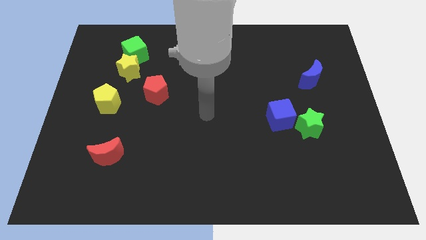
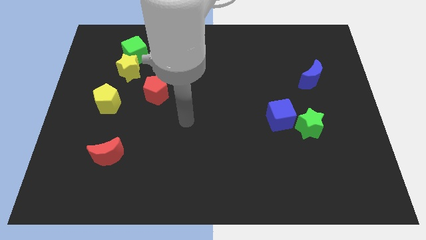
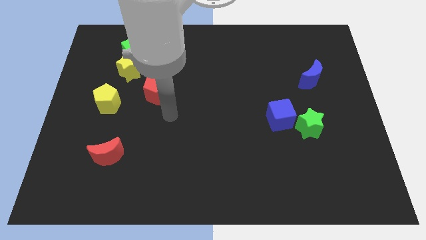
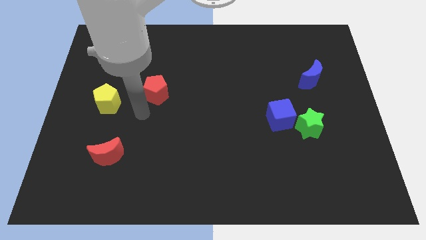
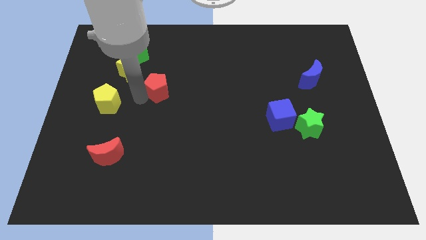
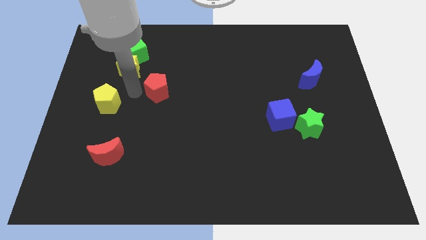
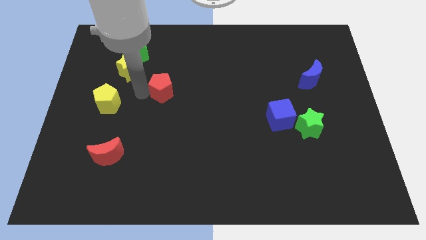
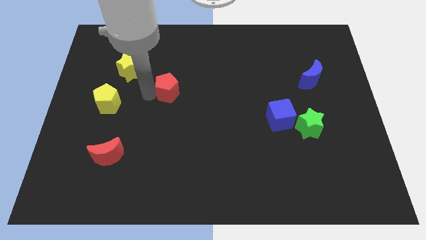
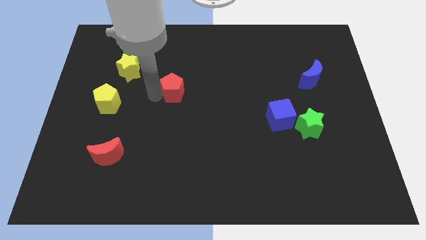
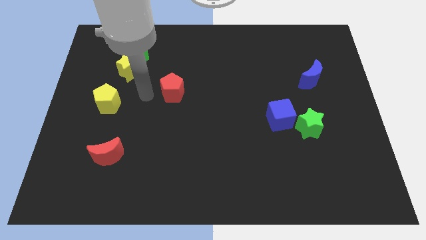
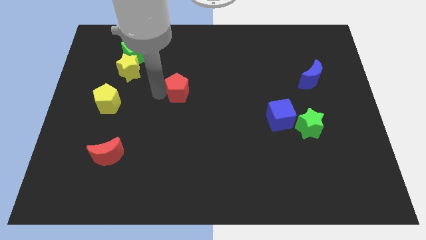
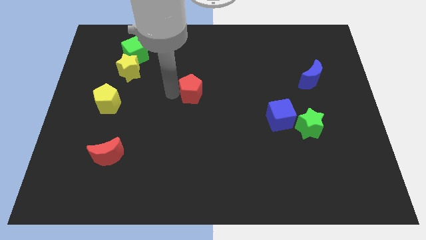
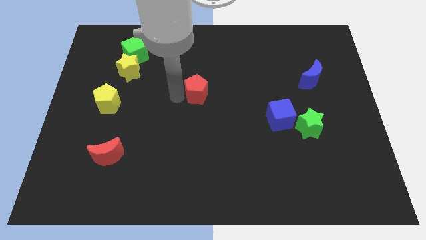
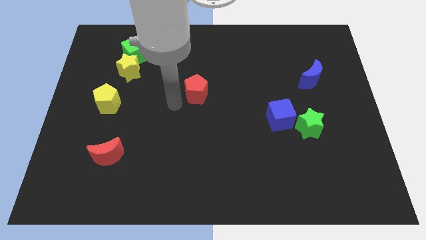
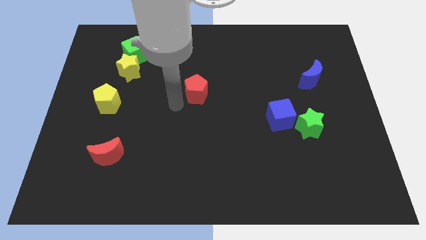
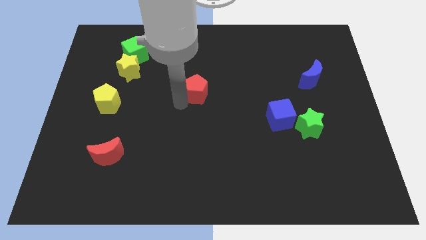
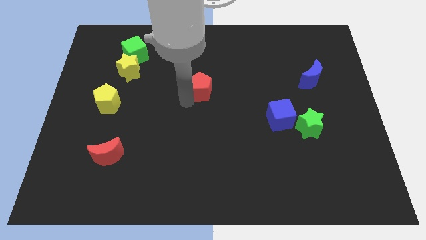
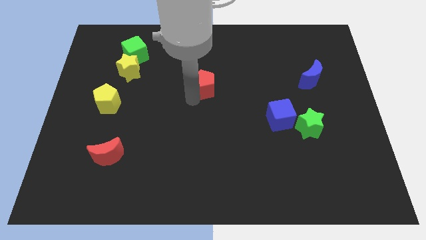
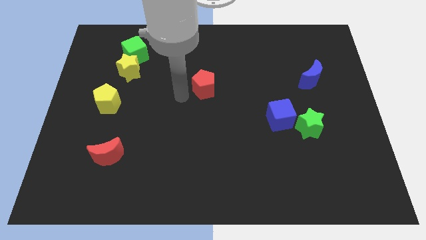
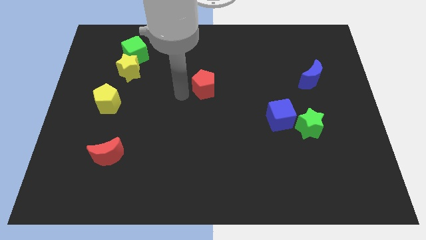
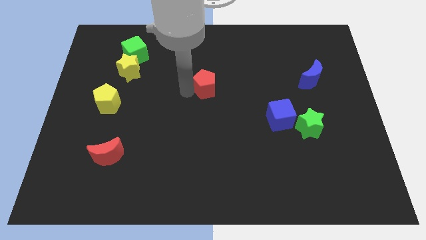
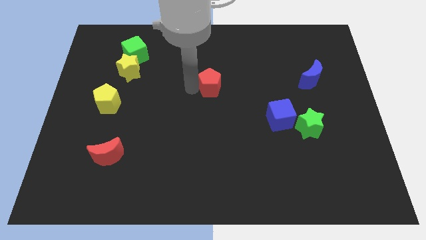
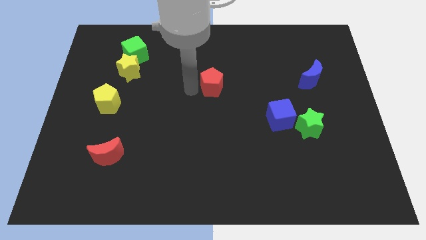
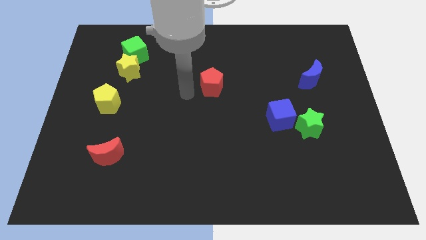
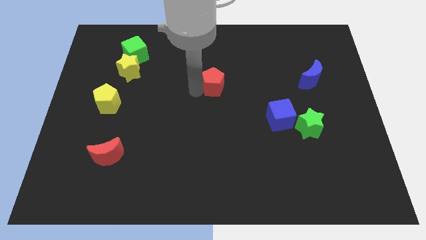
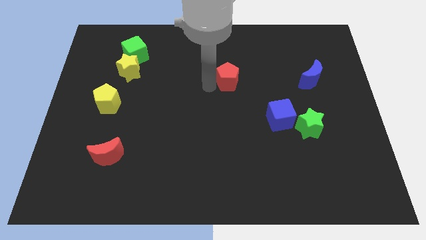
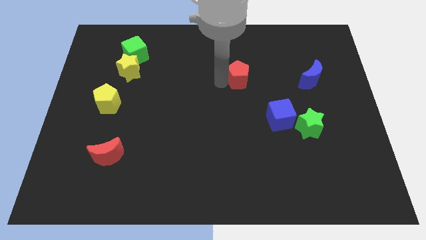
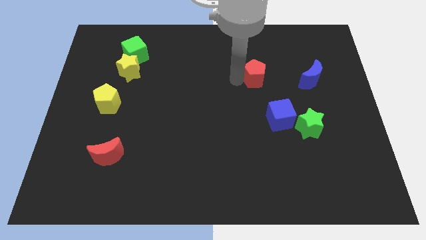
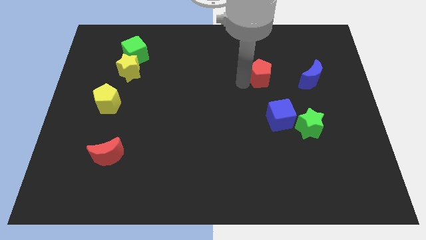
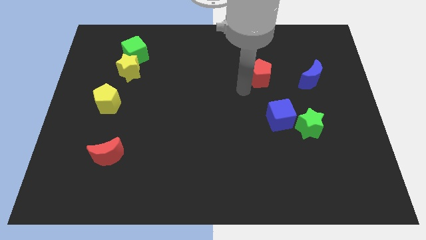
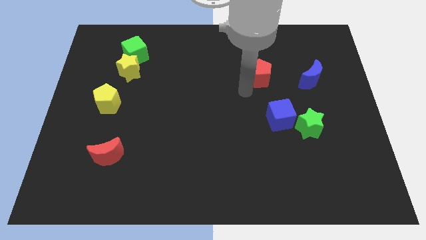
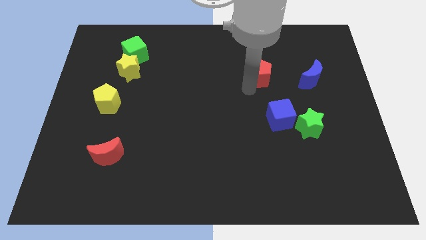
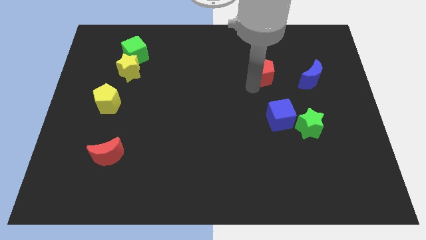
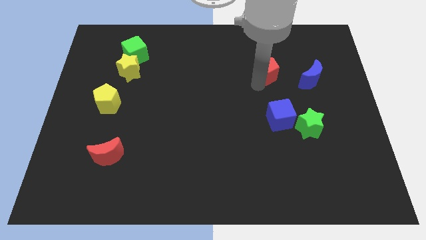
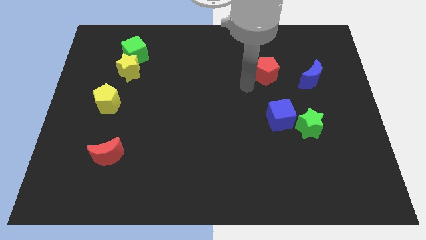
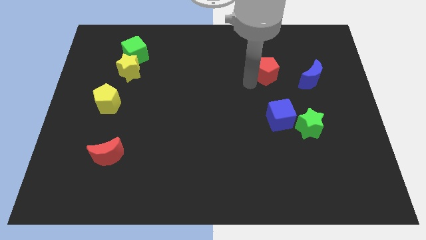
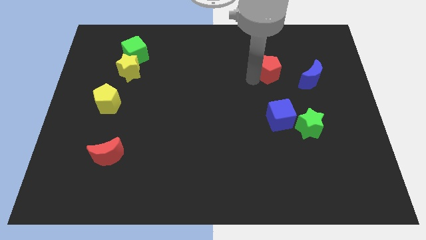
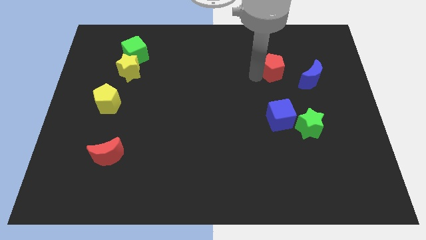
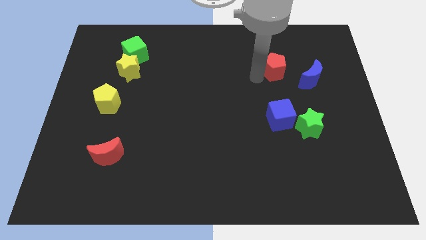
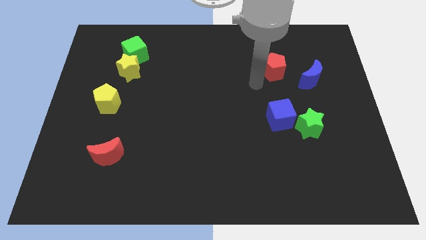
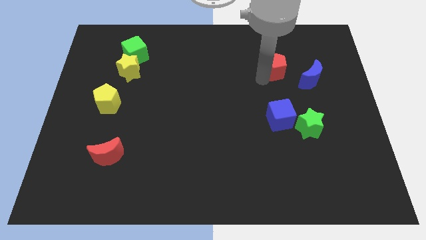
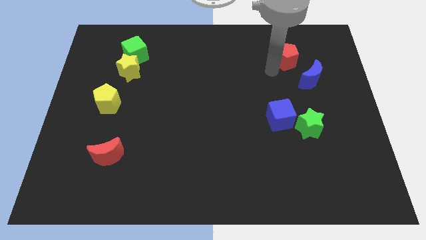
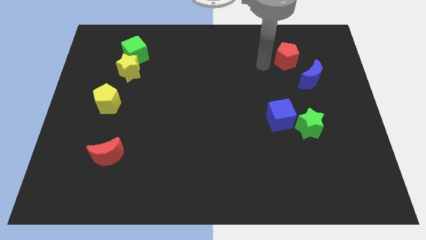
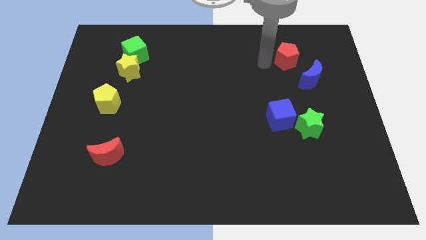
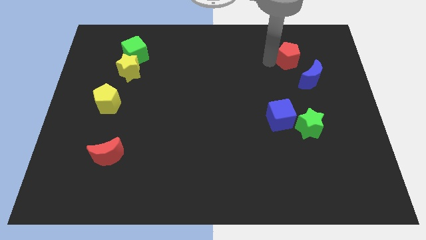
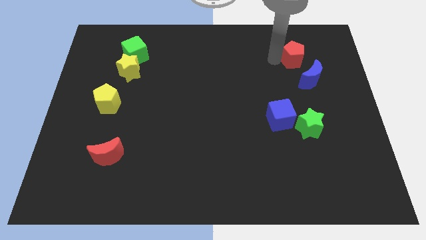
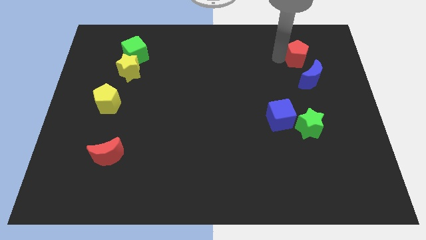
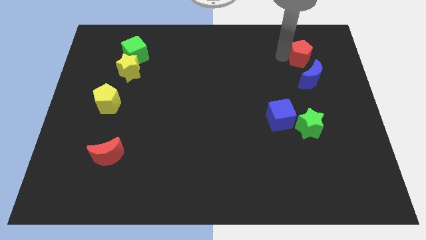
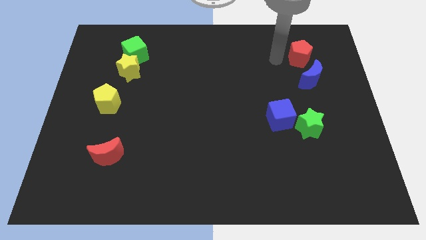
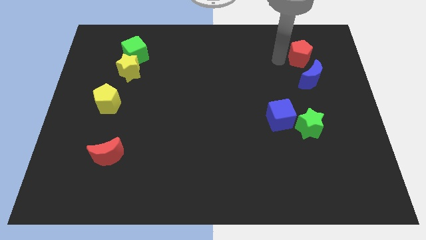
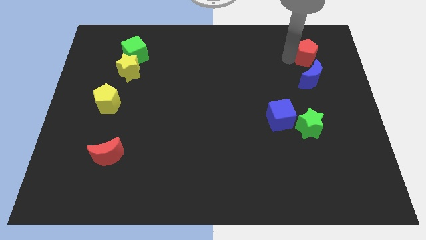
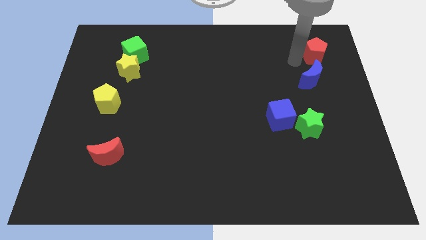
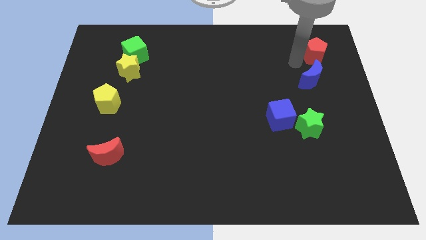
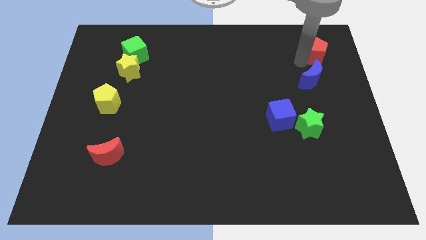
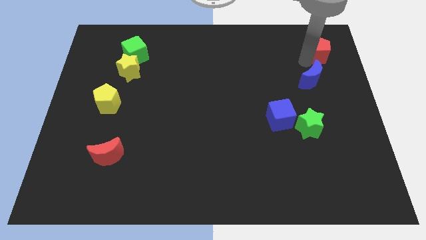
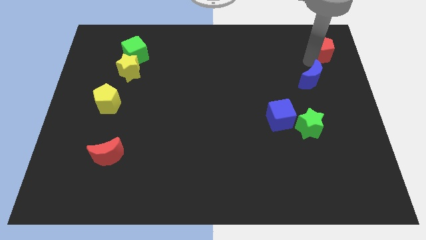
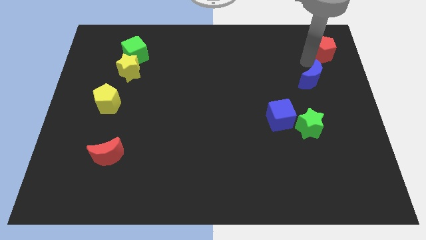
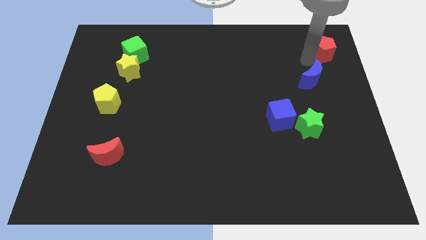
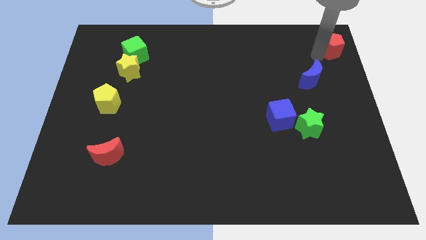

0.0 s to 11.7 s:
put the red pentagon to the top right corner
